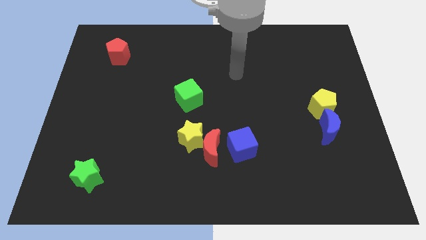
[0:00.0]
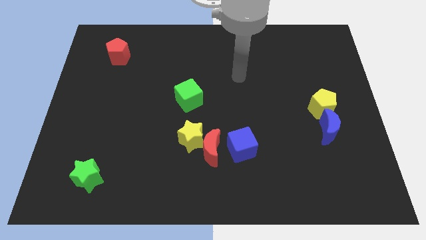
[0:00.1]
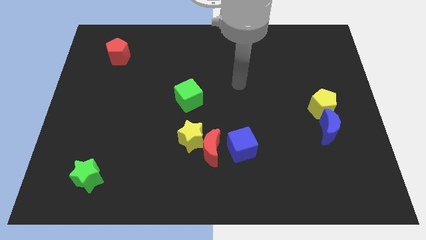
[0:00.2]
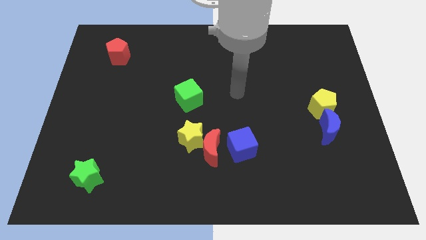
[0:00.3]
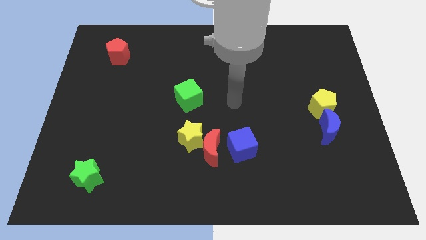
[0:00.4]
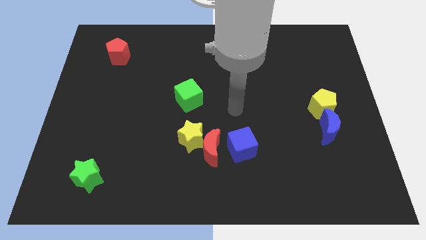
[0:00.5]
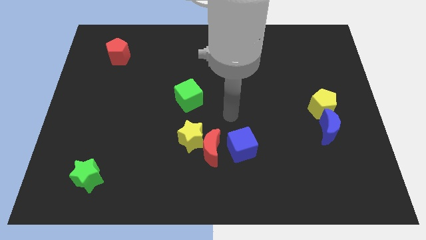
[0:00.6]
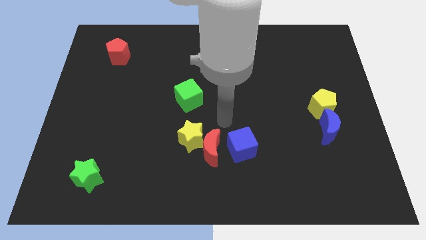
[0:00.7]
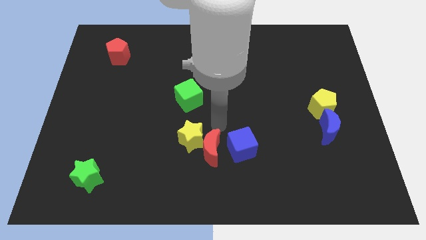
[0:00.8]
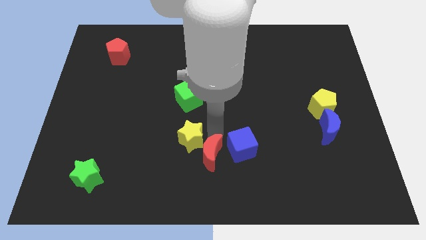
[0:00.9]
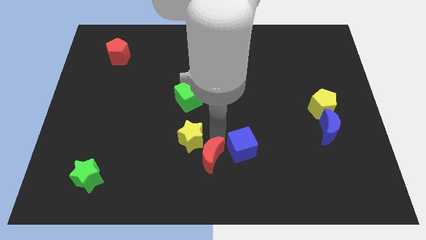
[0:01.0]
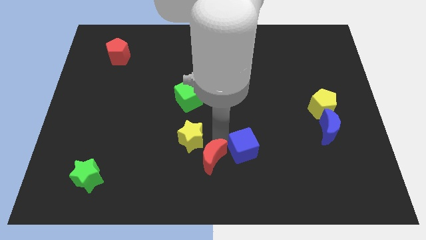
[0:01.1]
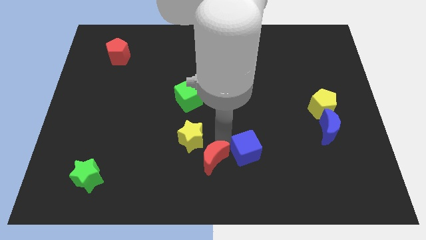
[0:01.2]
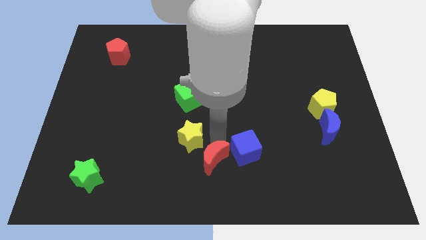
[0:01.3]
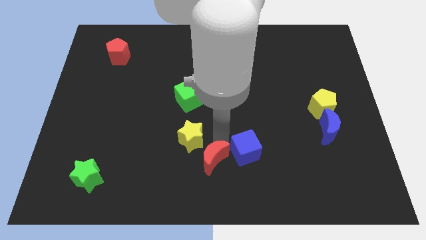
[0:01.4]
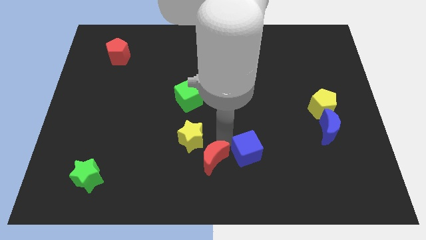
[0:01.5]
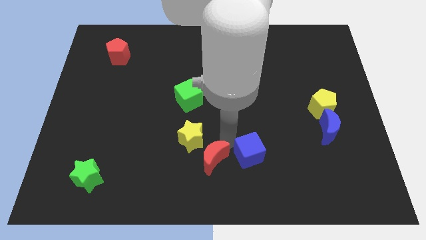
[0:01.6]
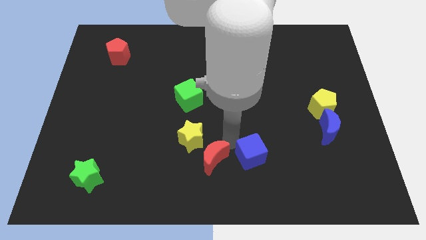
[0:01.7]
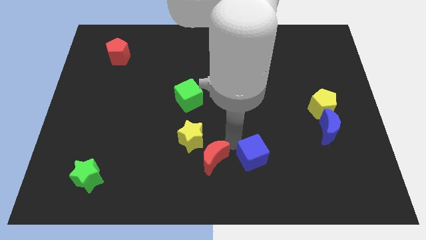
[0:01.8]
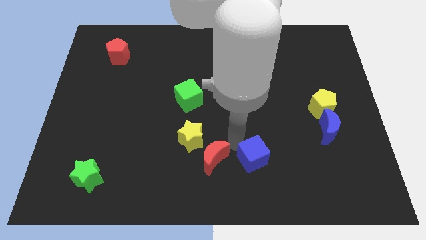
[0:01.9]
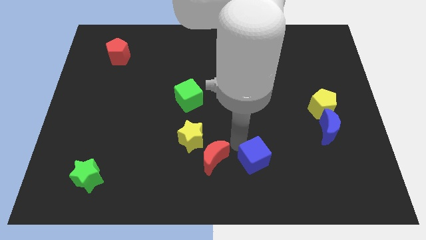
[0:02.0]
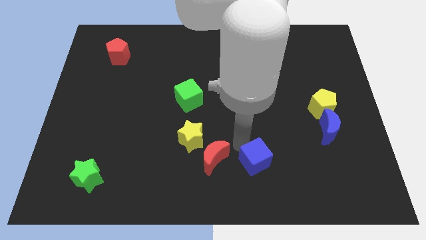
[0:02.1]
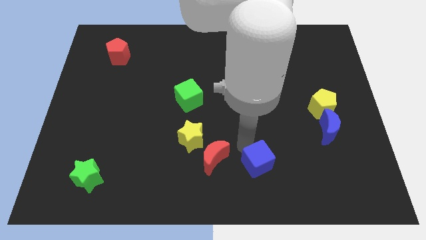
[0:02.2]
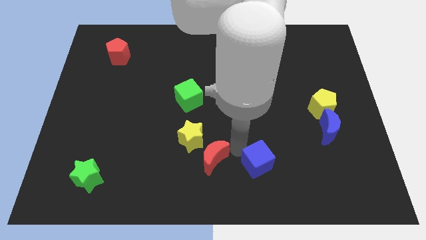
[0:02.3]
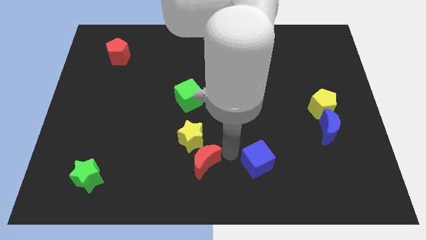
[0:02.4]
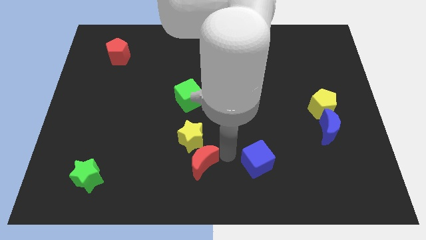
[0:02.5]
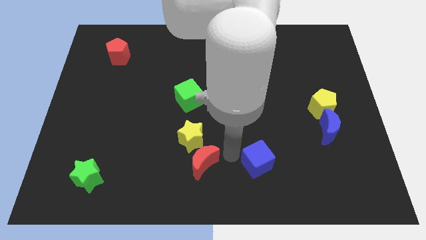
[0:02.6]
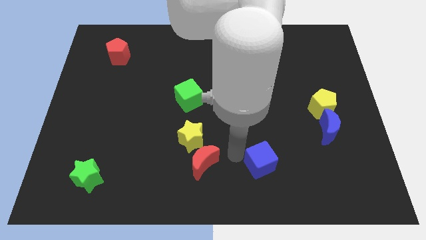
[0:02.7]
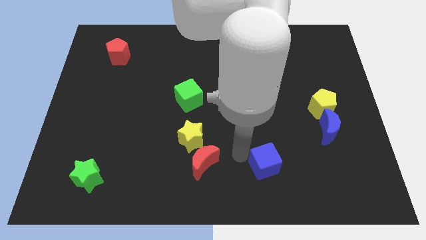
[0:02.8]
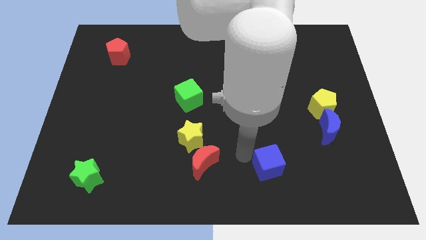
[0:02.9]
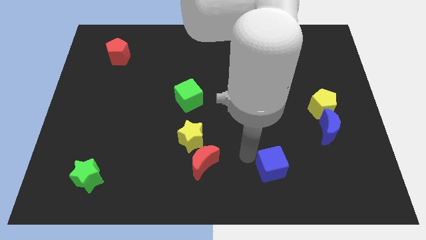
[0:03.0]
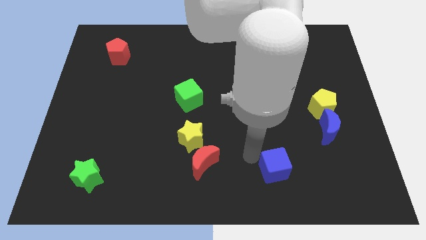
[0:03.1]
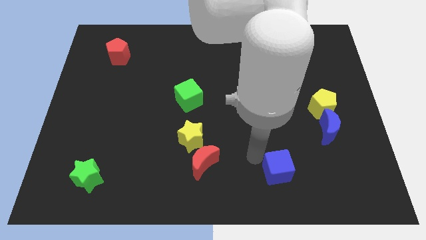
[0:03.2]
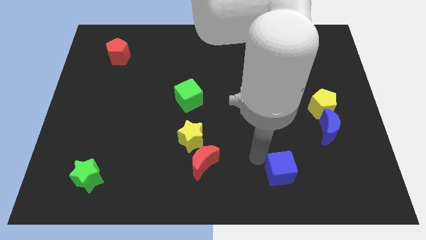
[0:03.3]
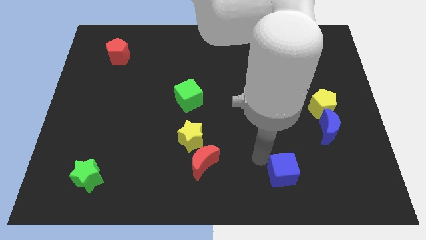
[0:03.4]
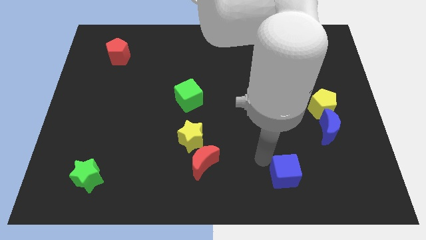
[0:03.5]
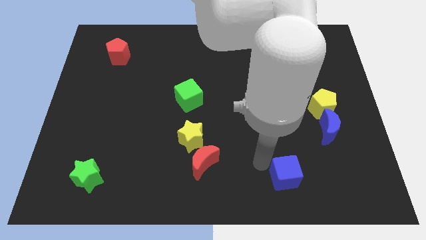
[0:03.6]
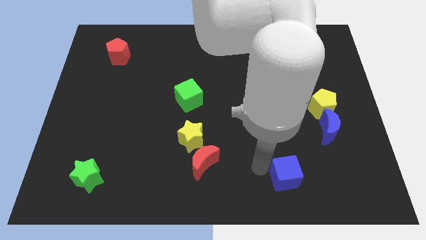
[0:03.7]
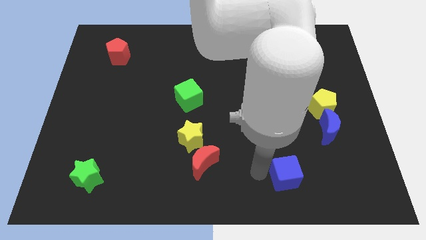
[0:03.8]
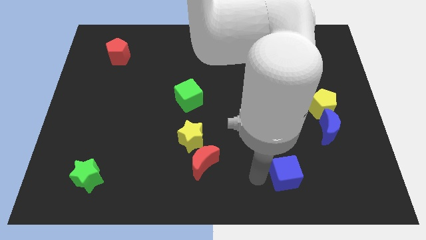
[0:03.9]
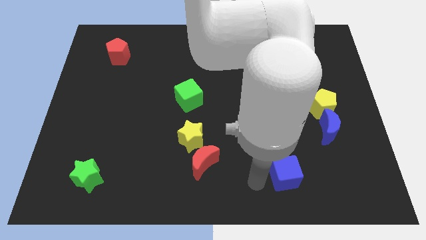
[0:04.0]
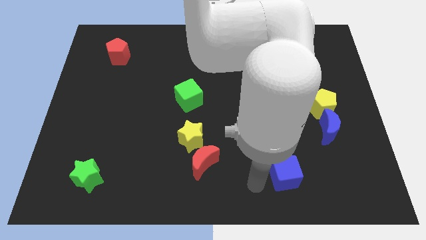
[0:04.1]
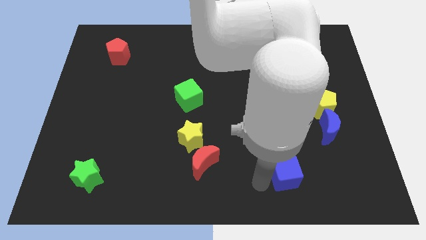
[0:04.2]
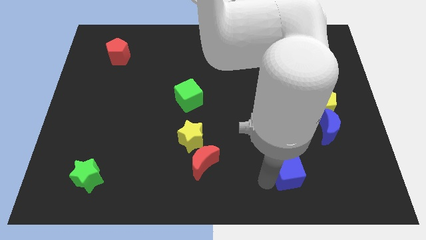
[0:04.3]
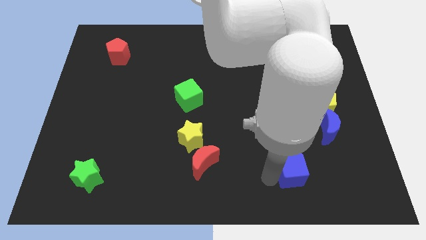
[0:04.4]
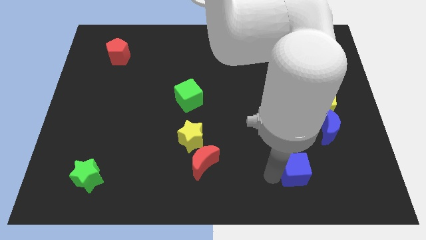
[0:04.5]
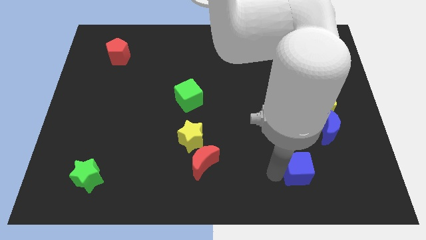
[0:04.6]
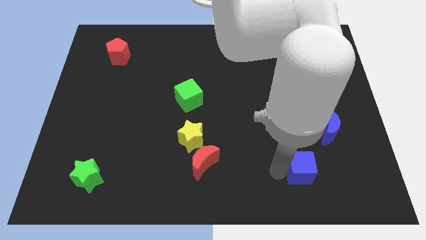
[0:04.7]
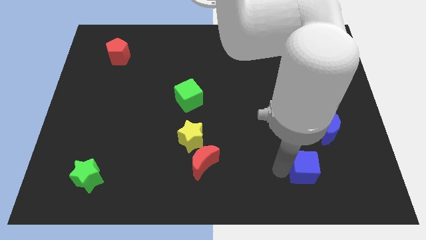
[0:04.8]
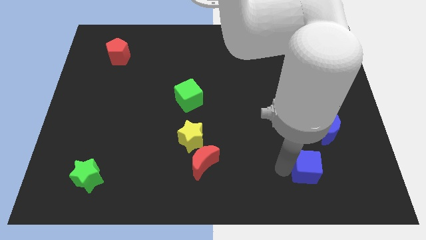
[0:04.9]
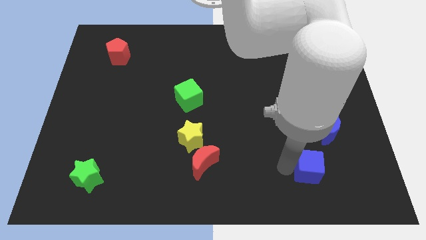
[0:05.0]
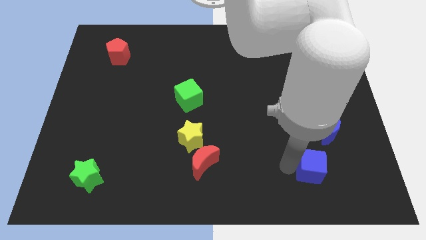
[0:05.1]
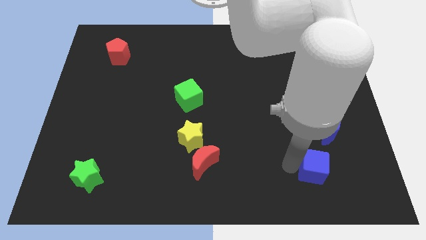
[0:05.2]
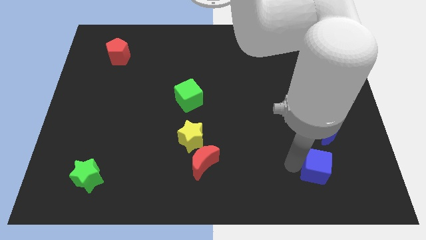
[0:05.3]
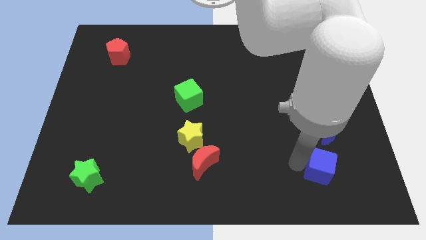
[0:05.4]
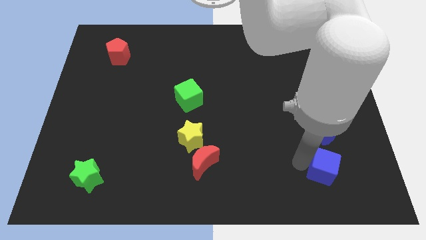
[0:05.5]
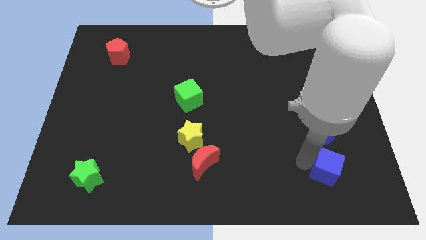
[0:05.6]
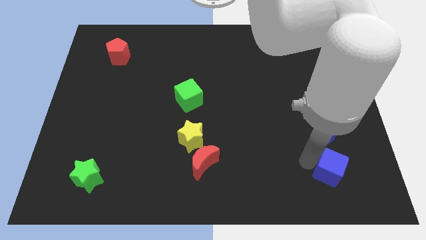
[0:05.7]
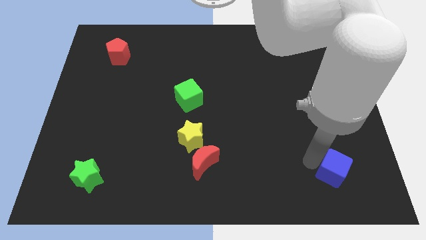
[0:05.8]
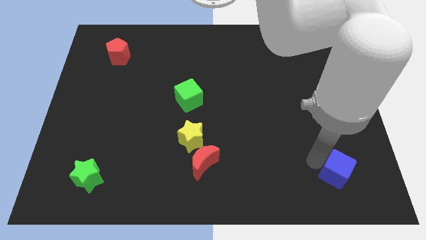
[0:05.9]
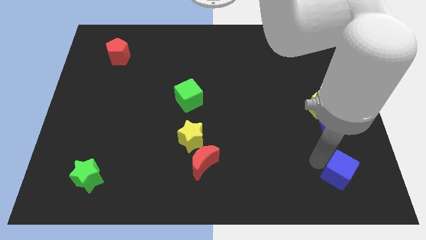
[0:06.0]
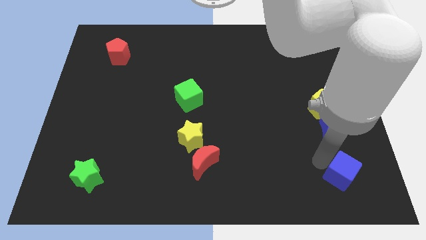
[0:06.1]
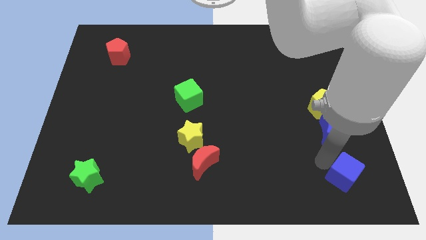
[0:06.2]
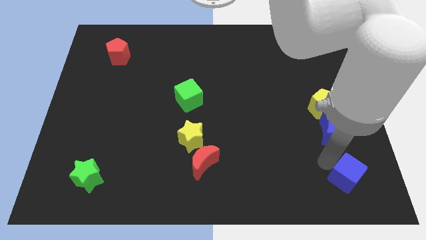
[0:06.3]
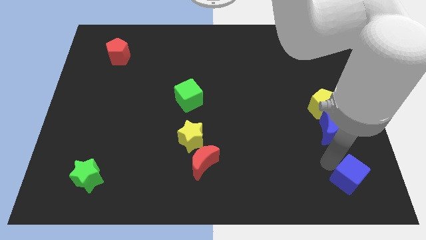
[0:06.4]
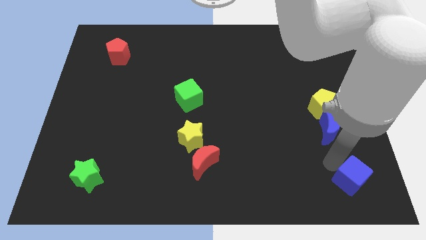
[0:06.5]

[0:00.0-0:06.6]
move the blue cube to the lower right corner

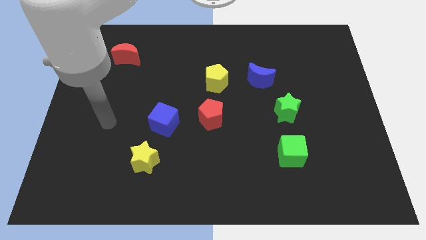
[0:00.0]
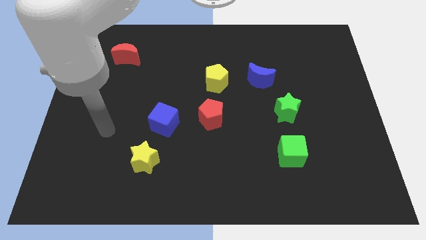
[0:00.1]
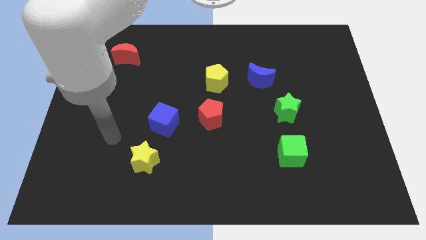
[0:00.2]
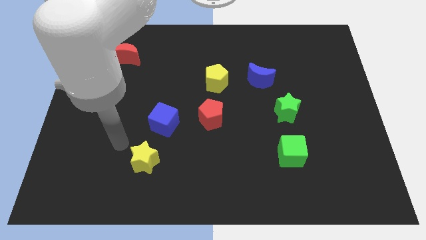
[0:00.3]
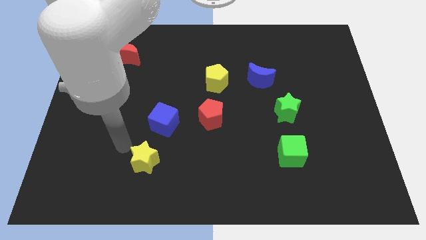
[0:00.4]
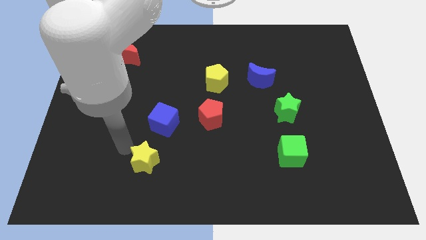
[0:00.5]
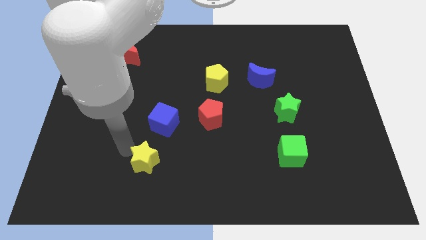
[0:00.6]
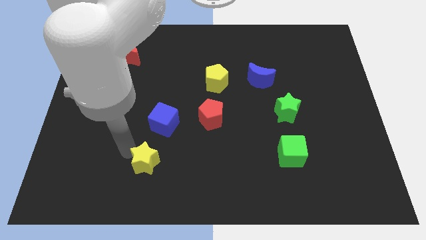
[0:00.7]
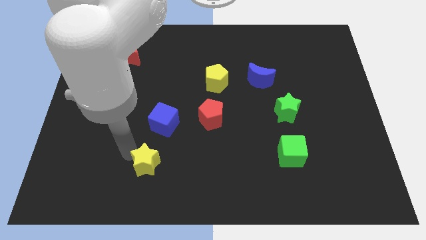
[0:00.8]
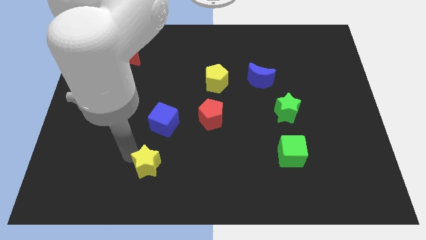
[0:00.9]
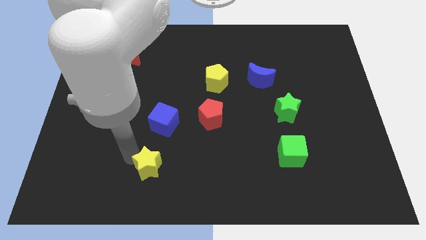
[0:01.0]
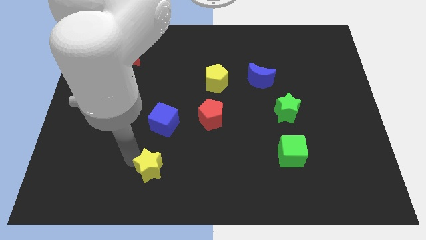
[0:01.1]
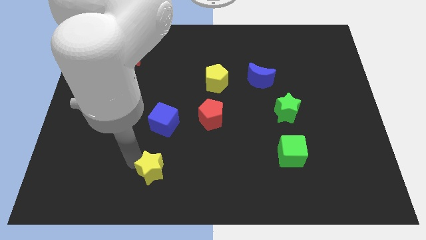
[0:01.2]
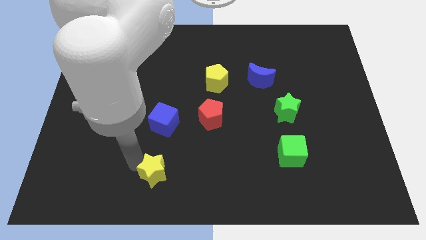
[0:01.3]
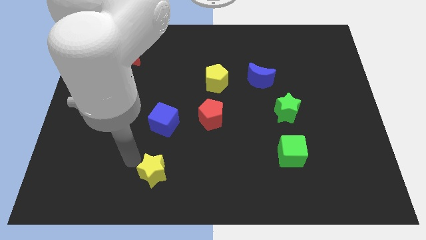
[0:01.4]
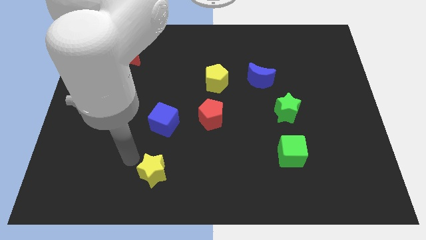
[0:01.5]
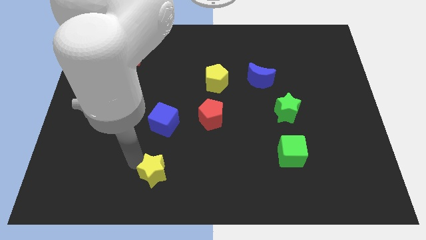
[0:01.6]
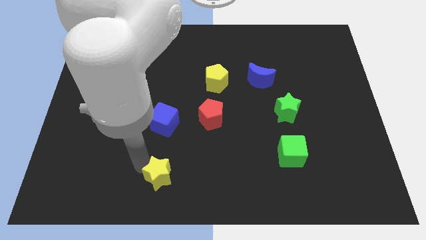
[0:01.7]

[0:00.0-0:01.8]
slide the yellow star to the bottom
